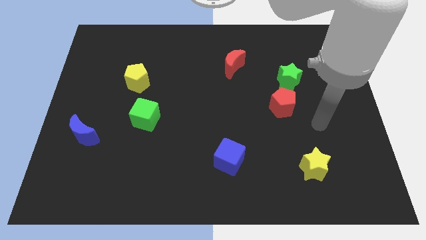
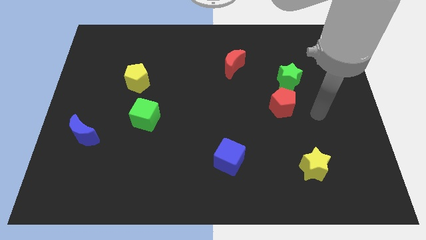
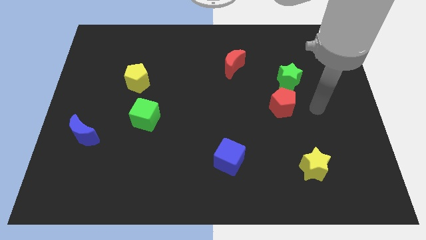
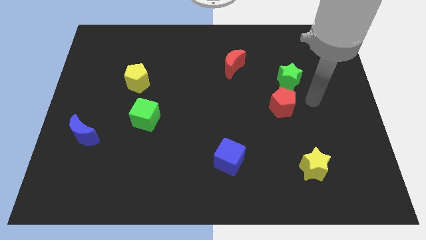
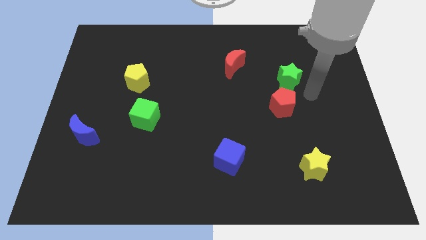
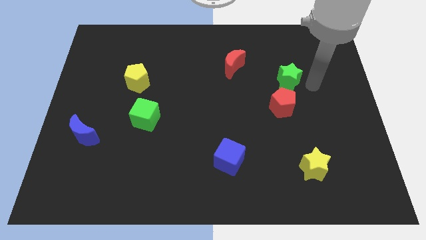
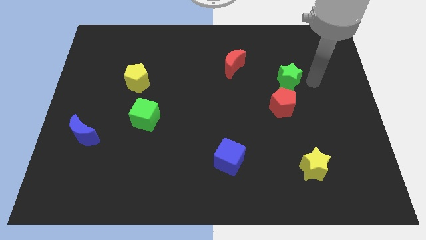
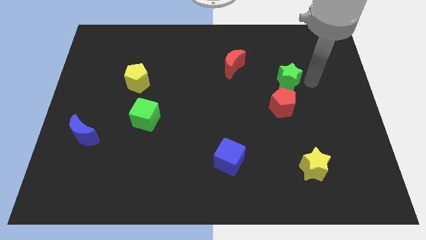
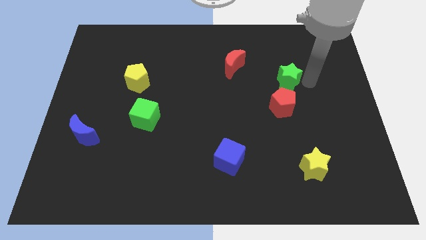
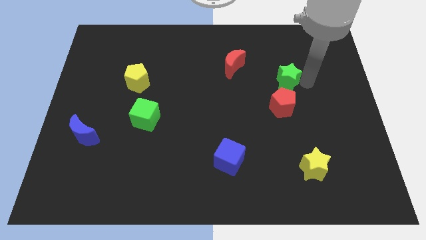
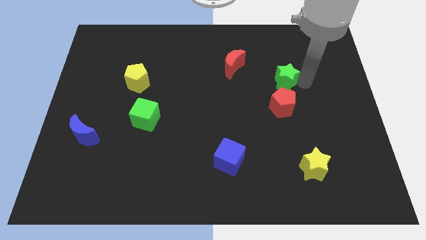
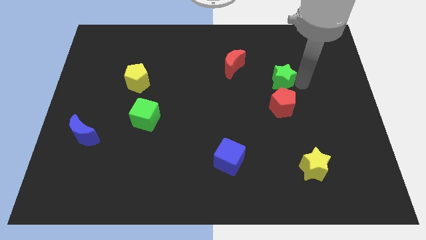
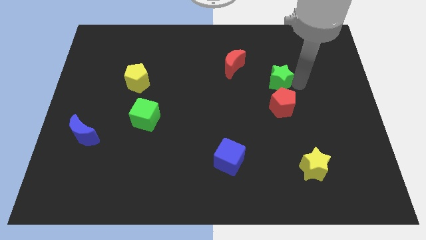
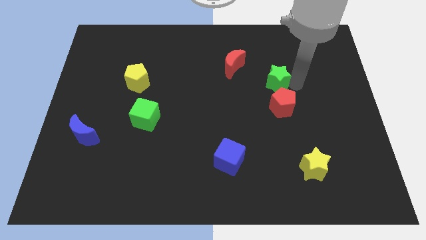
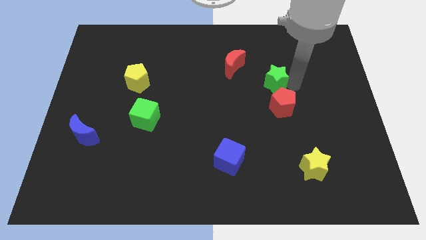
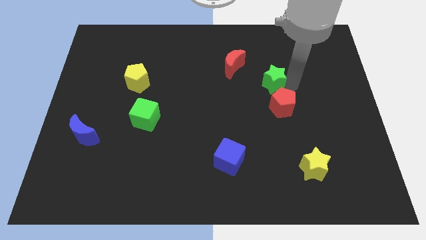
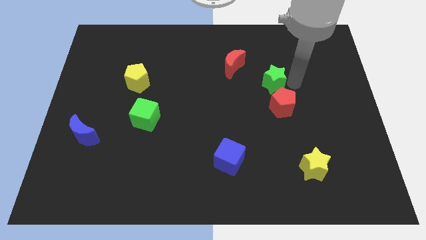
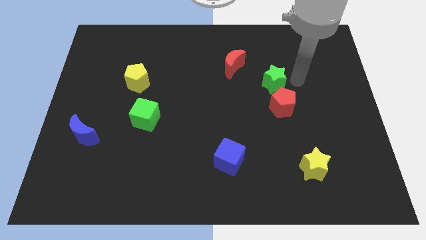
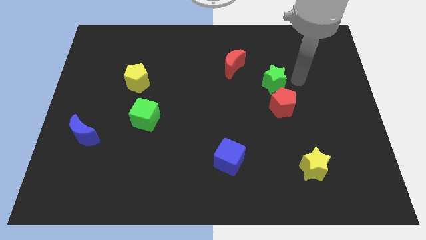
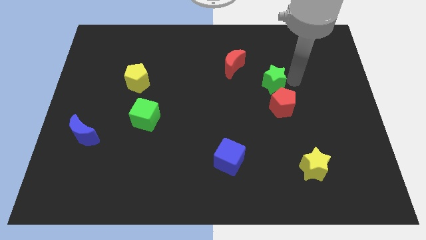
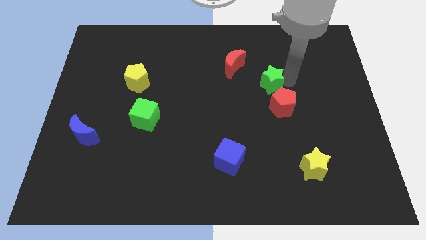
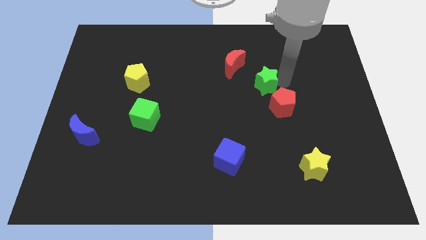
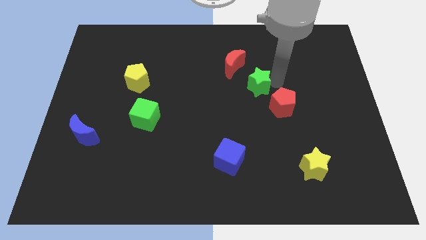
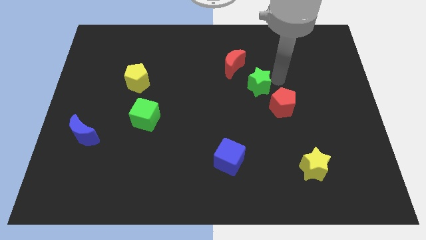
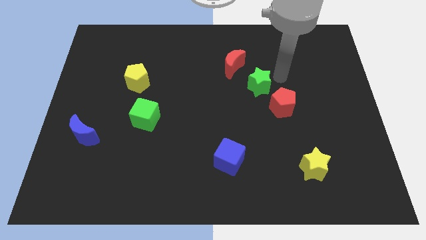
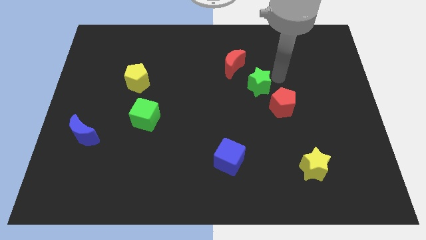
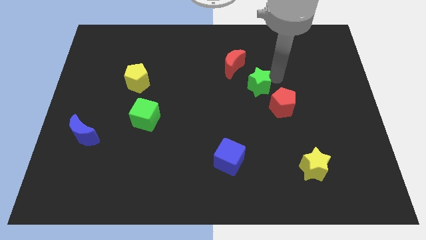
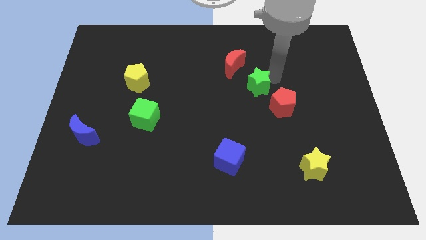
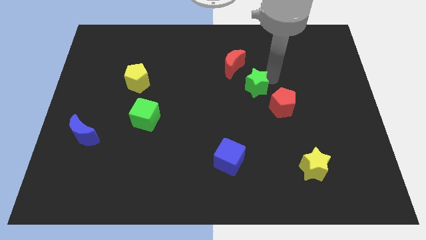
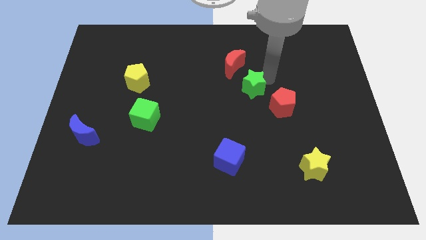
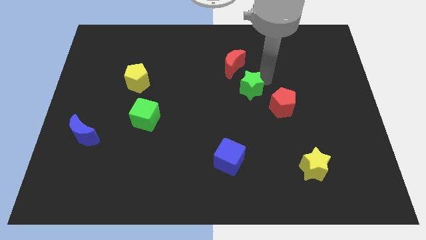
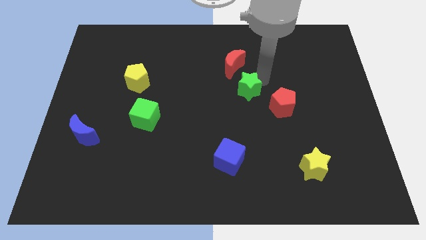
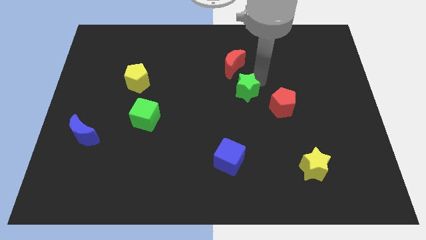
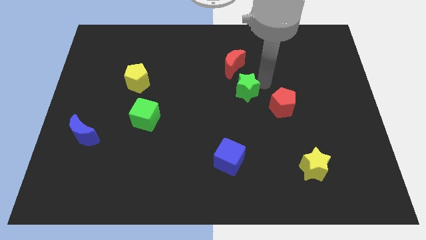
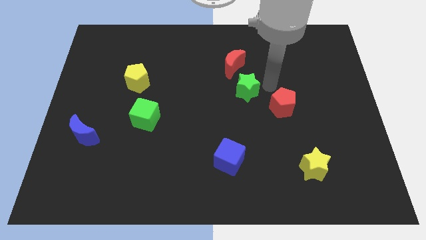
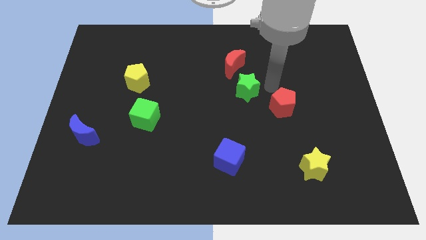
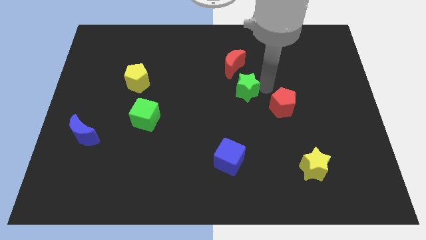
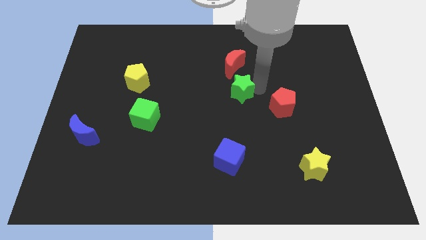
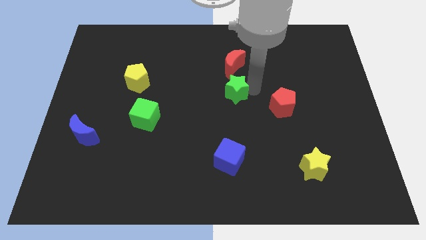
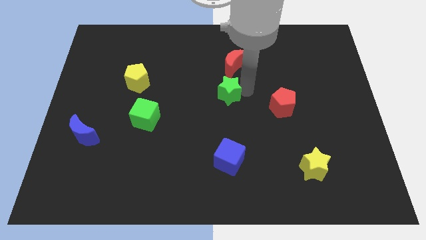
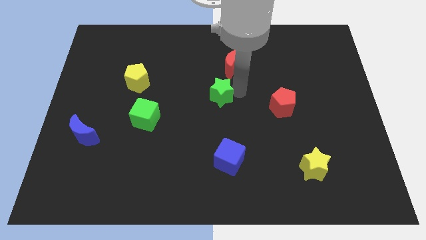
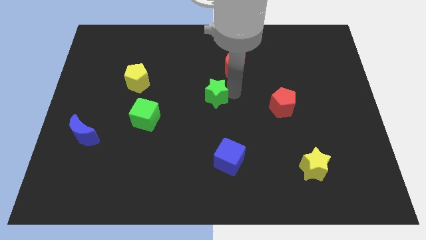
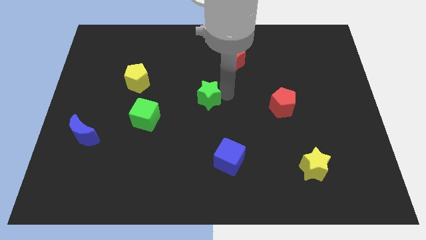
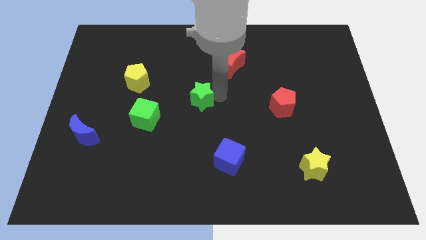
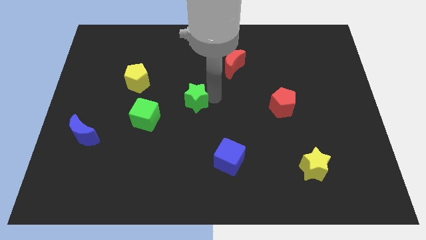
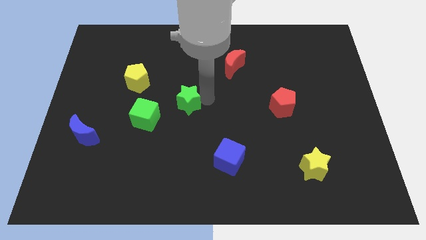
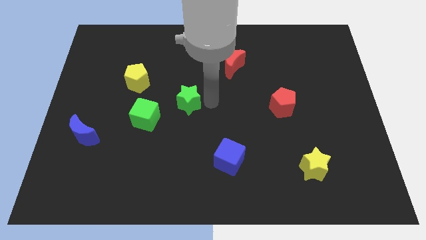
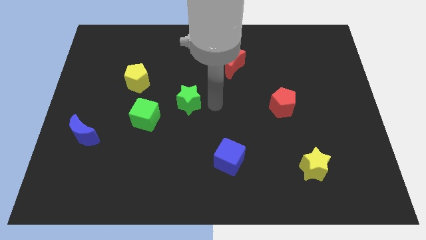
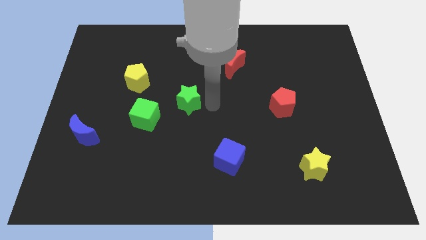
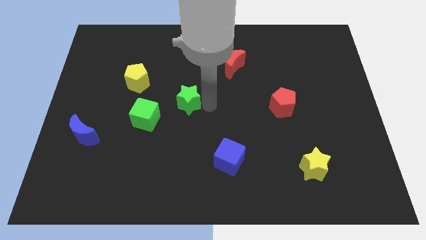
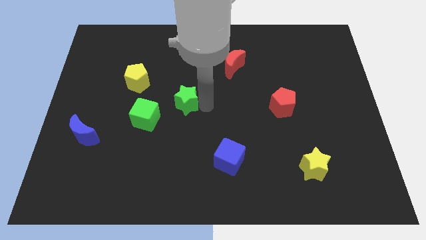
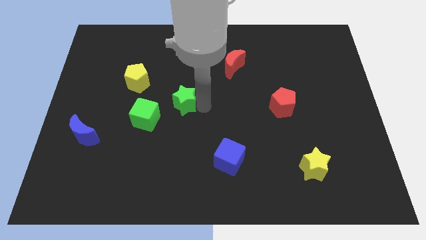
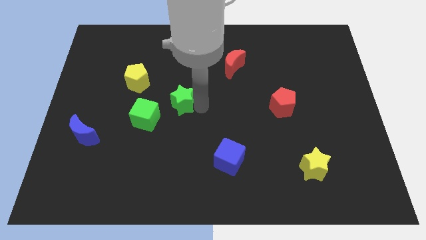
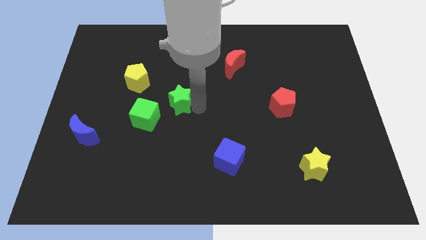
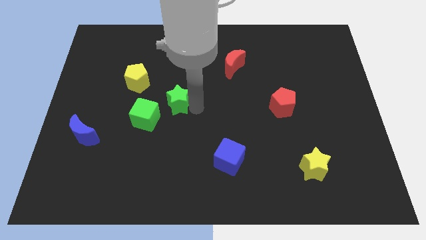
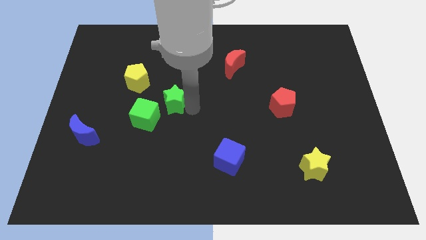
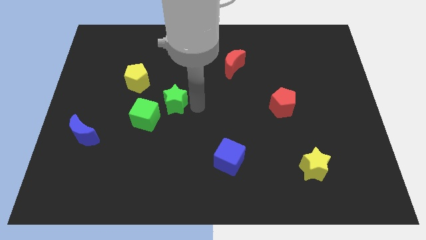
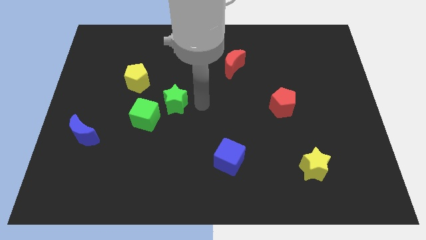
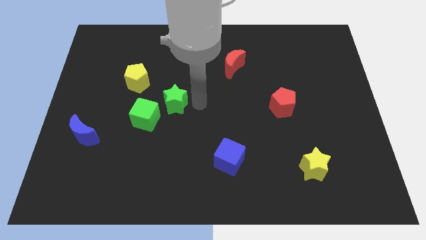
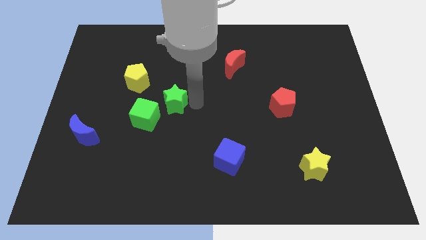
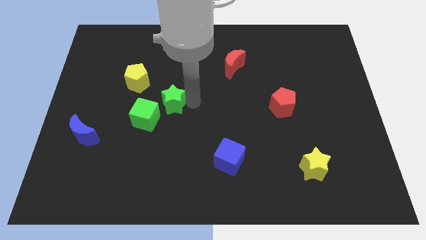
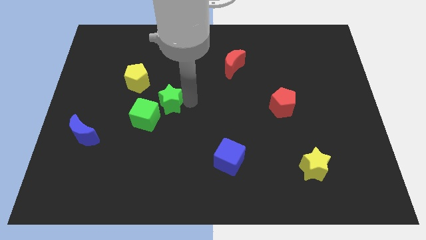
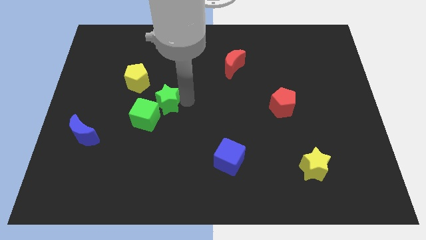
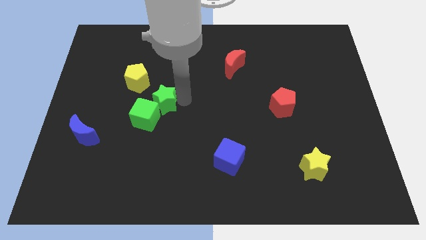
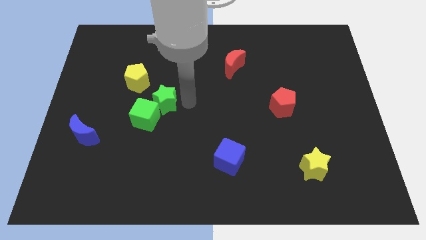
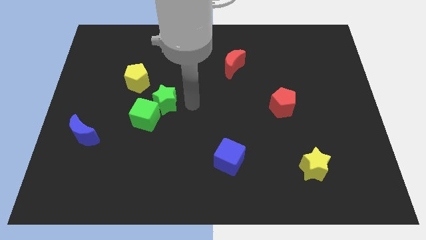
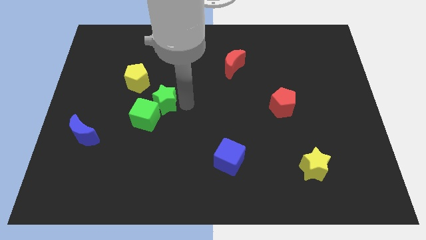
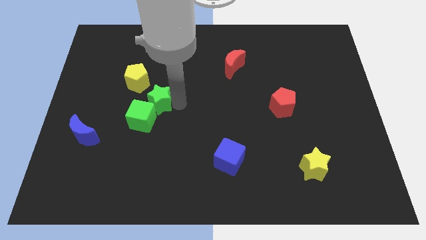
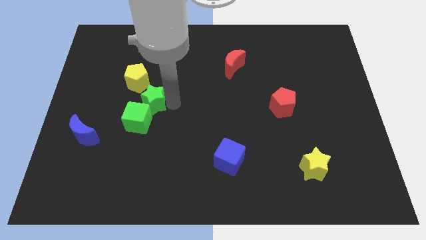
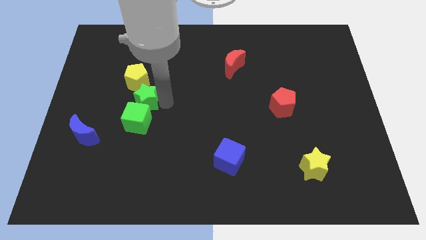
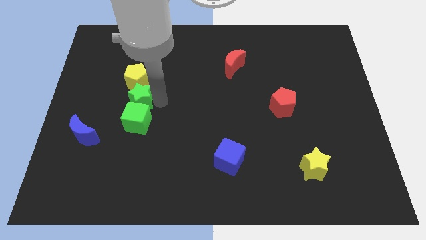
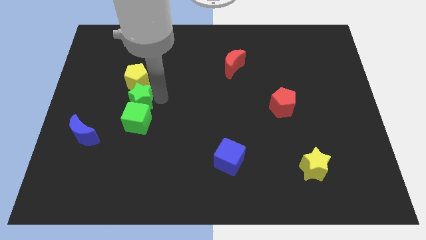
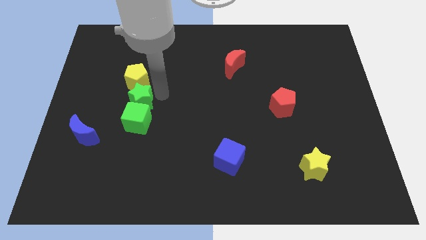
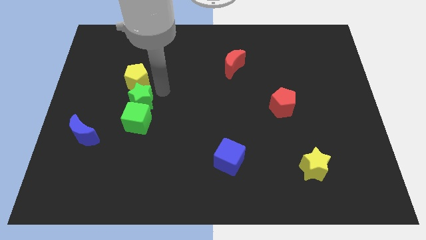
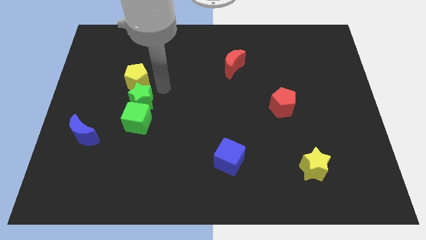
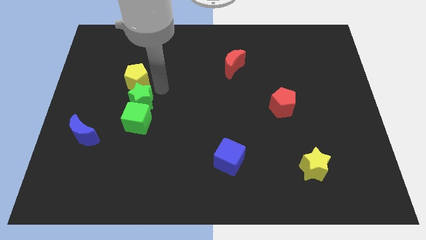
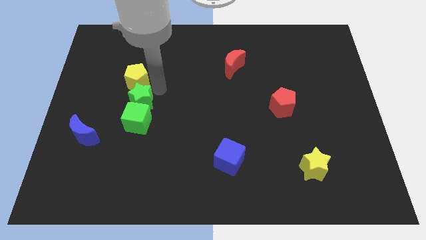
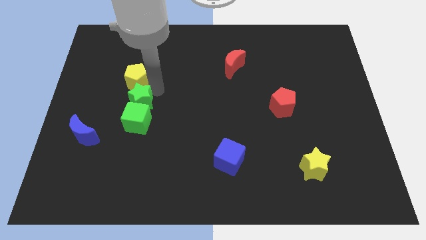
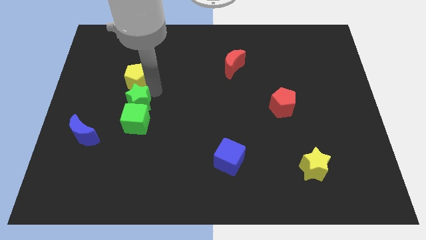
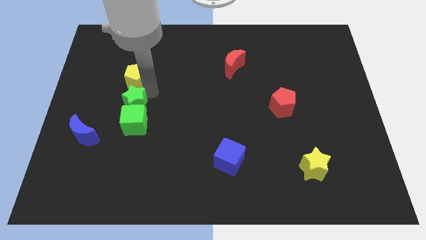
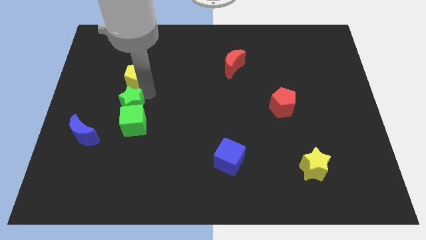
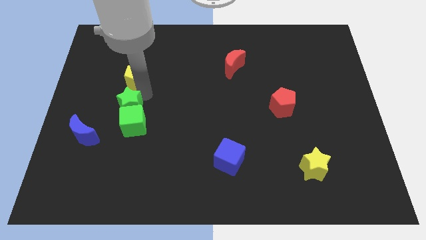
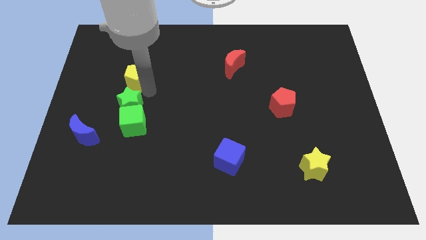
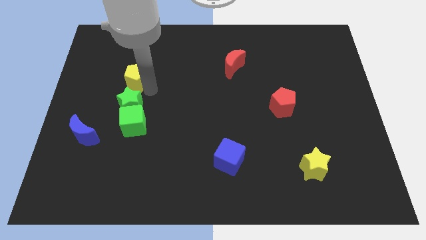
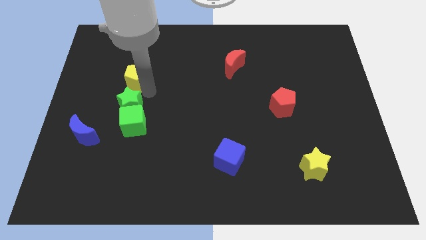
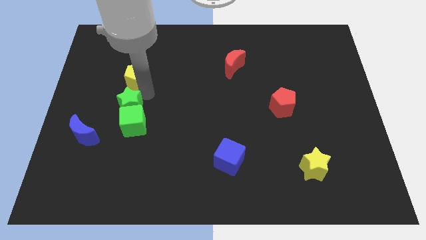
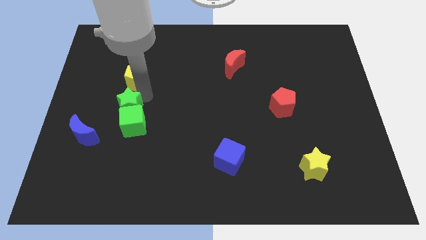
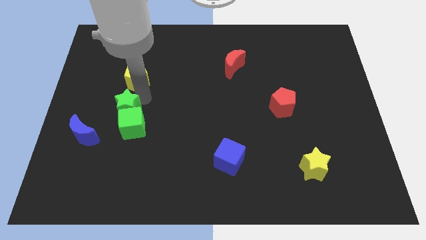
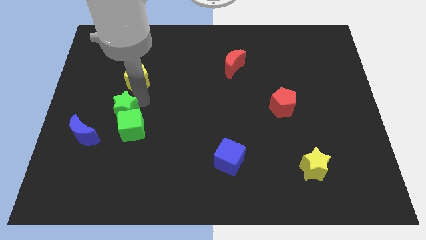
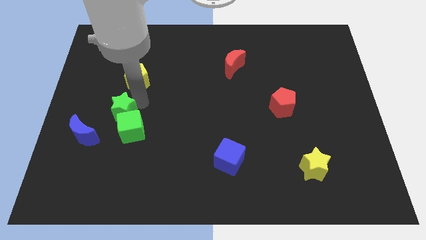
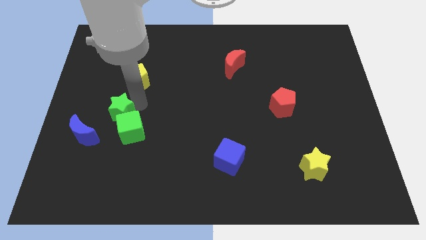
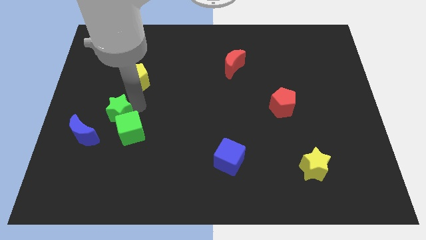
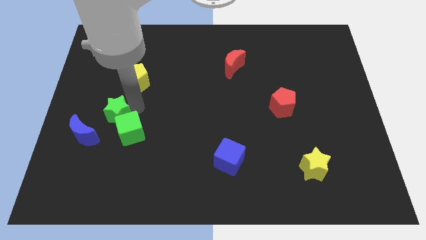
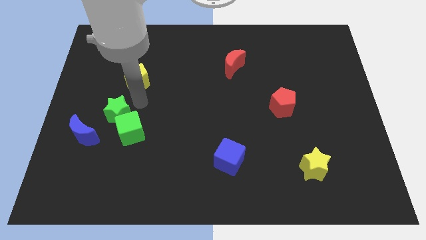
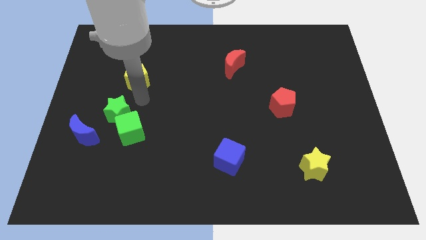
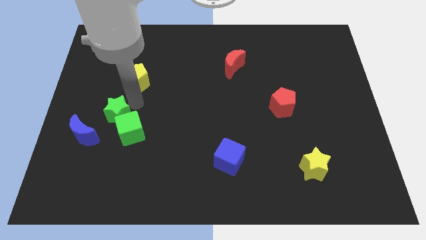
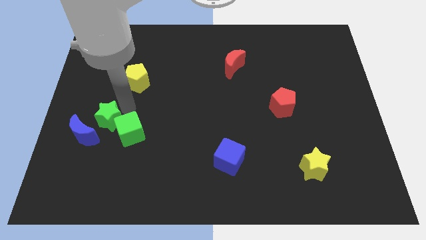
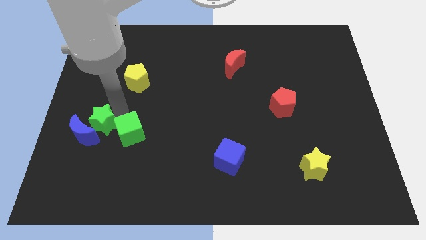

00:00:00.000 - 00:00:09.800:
slide the green star towards the blue moon
